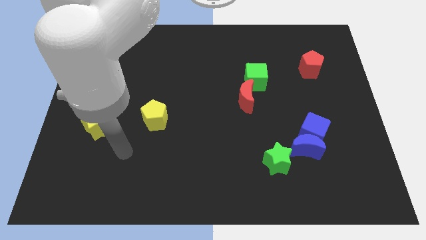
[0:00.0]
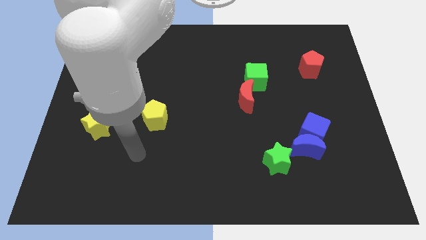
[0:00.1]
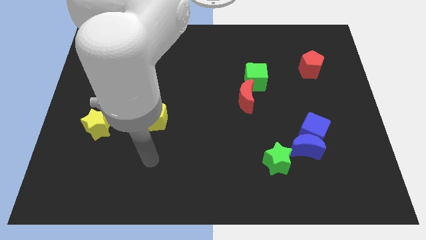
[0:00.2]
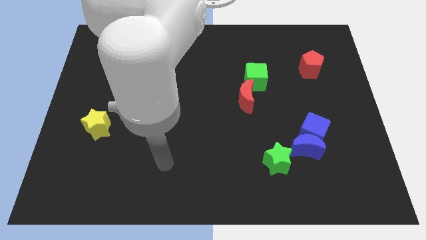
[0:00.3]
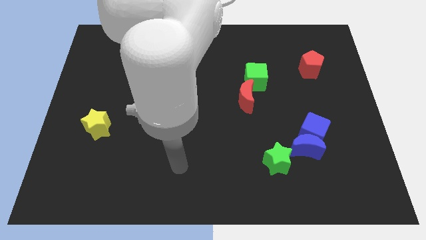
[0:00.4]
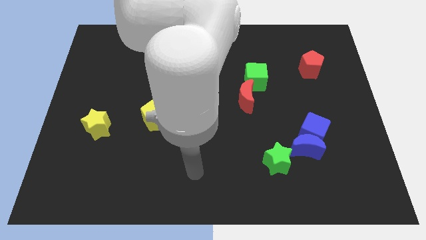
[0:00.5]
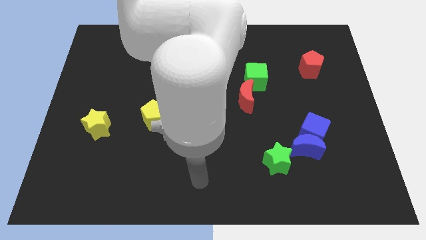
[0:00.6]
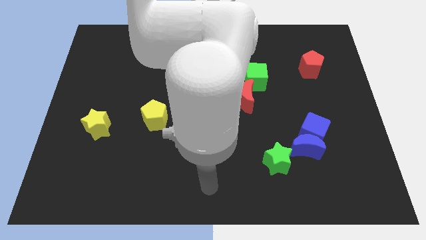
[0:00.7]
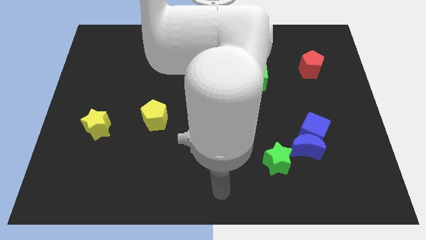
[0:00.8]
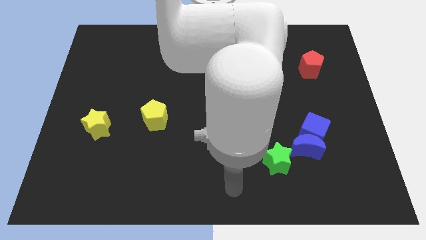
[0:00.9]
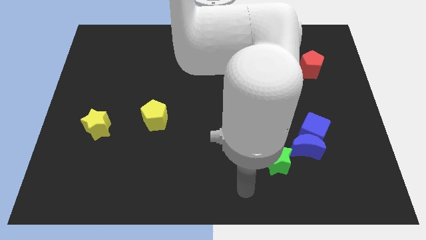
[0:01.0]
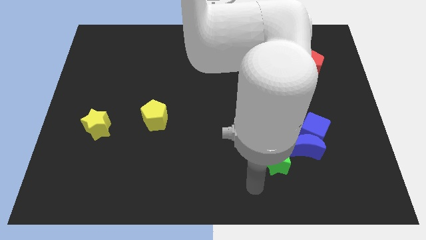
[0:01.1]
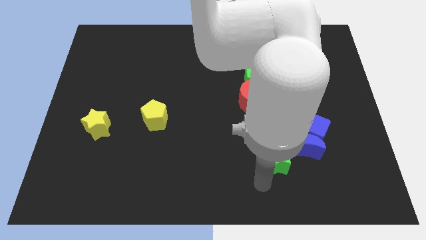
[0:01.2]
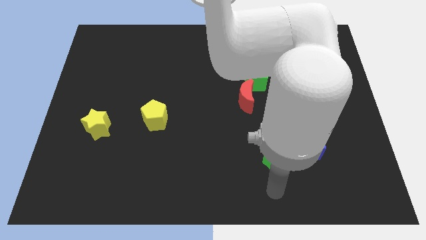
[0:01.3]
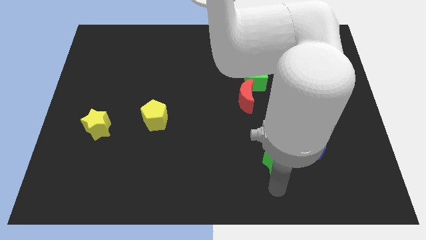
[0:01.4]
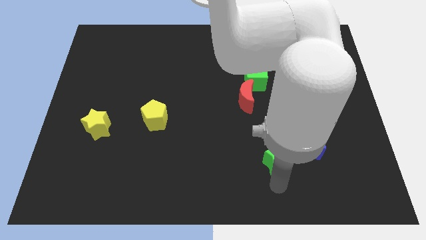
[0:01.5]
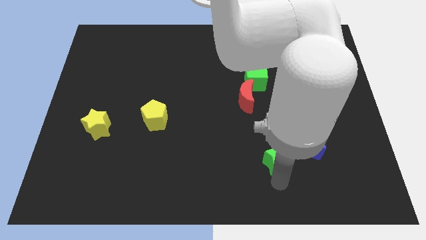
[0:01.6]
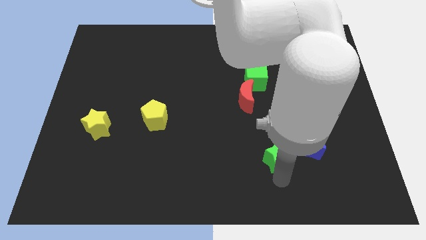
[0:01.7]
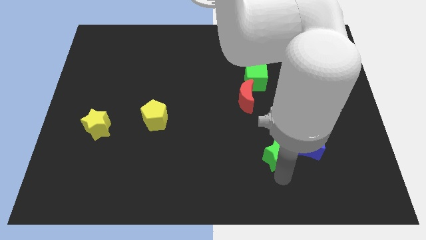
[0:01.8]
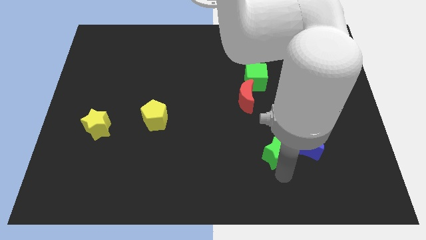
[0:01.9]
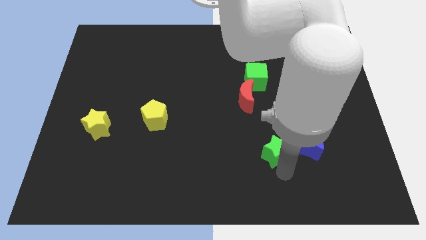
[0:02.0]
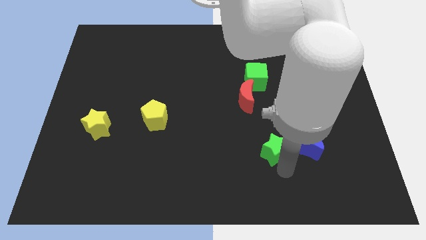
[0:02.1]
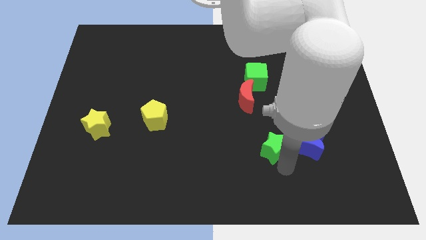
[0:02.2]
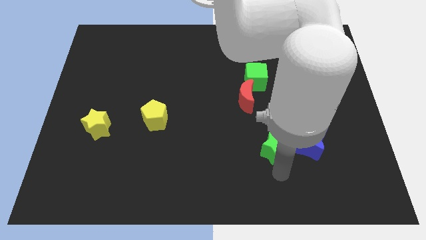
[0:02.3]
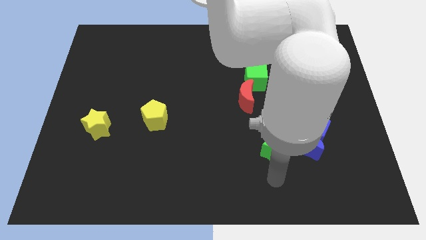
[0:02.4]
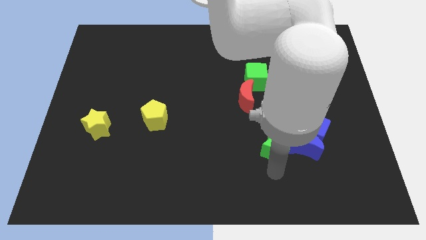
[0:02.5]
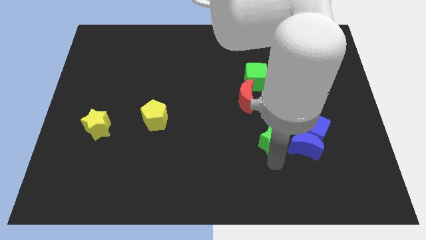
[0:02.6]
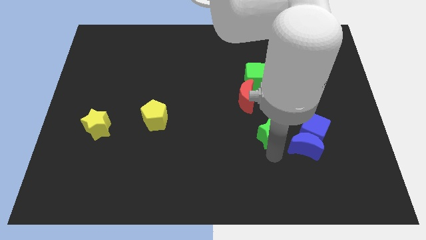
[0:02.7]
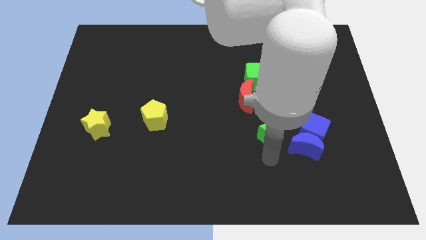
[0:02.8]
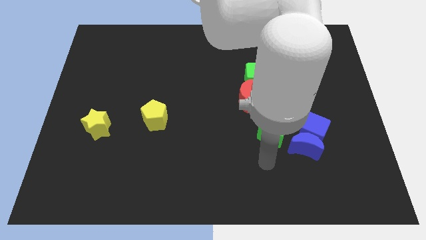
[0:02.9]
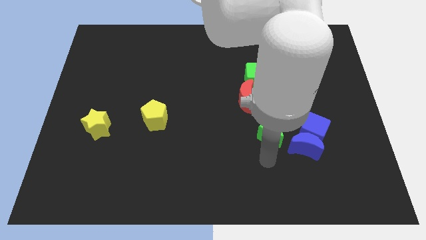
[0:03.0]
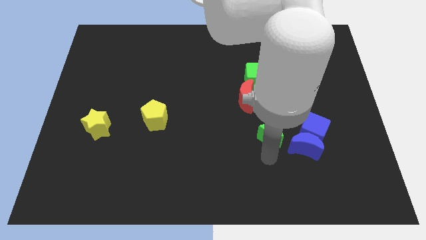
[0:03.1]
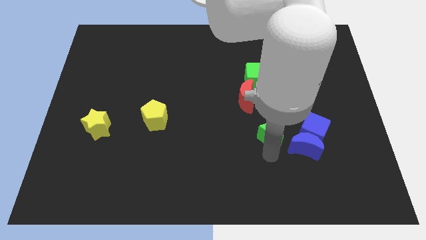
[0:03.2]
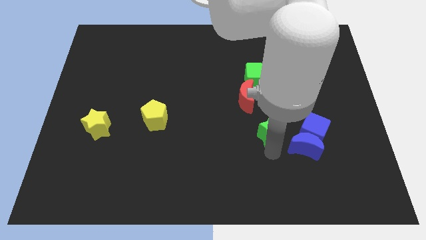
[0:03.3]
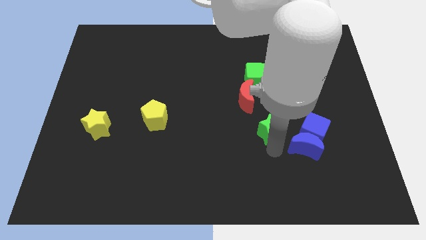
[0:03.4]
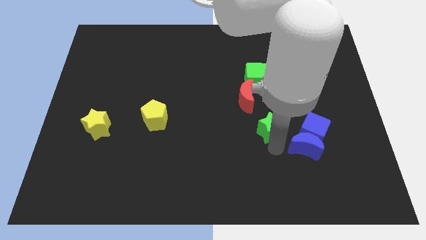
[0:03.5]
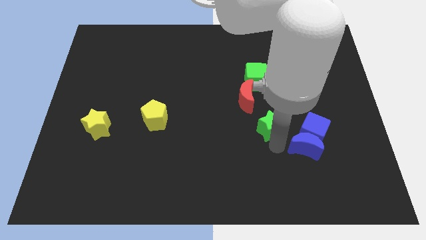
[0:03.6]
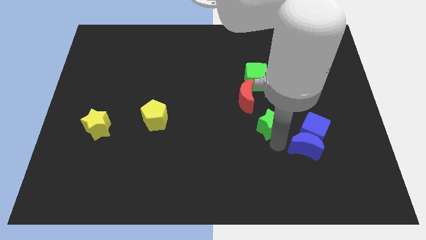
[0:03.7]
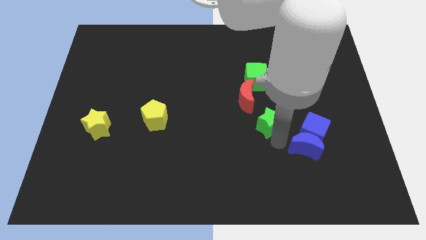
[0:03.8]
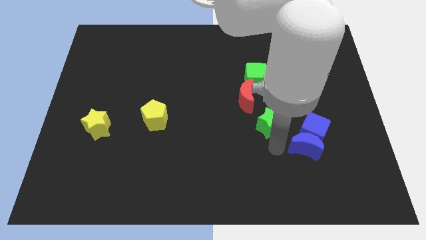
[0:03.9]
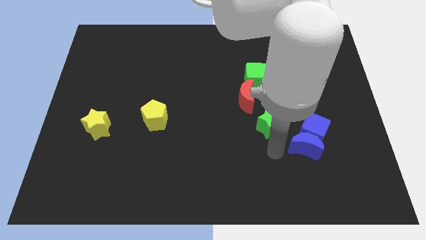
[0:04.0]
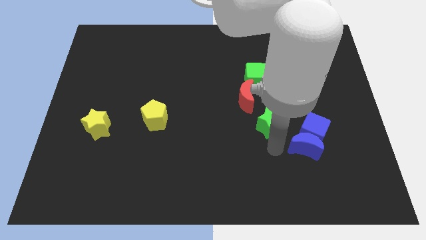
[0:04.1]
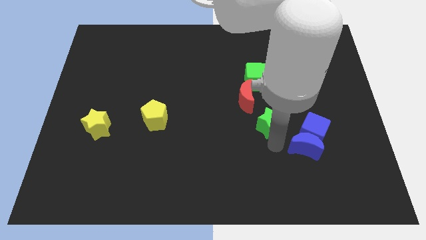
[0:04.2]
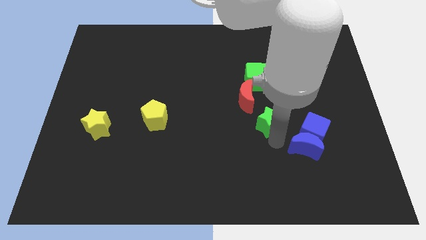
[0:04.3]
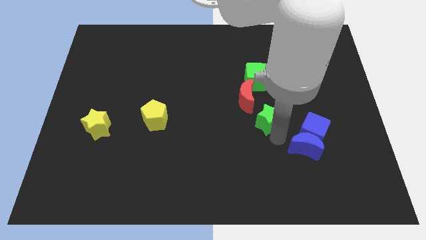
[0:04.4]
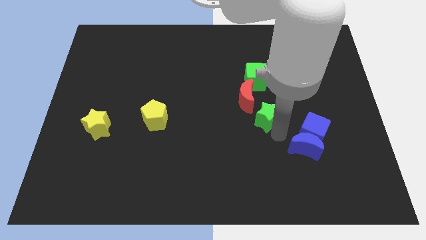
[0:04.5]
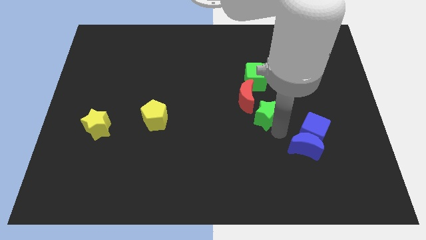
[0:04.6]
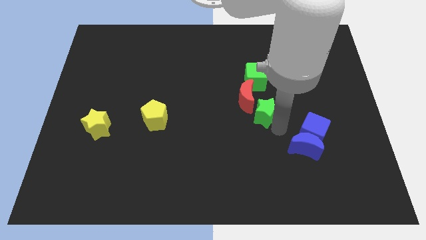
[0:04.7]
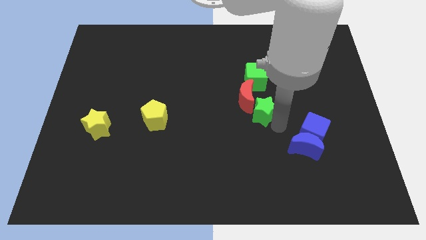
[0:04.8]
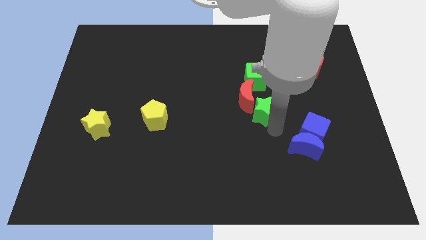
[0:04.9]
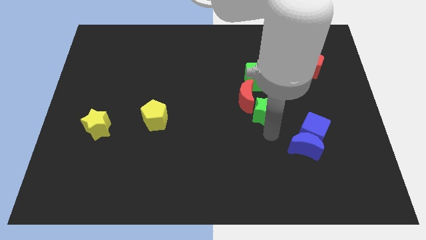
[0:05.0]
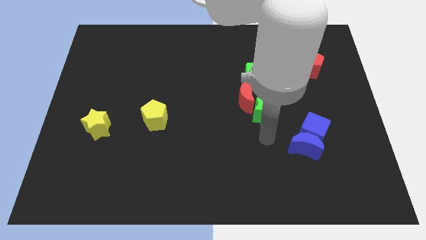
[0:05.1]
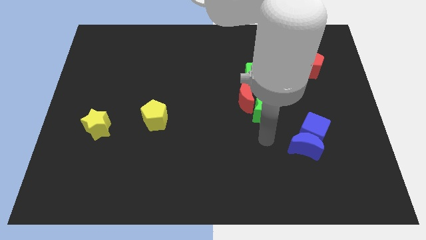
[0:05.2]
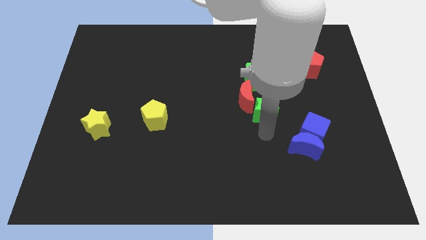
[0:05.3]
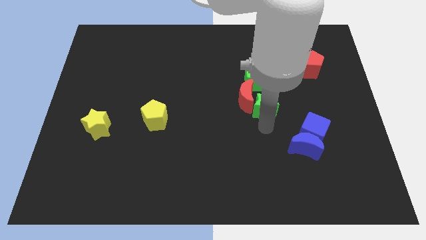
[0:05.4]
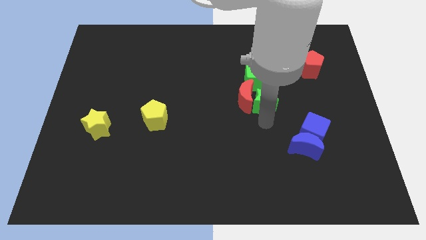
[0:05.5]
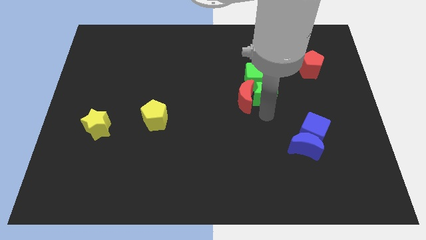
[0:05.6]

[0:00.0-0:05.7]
move the green star towards the green cube

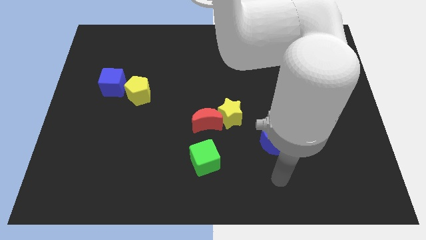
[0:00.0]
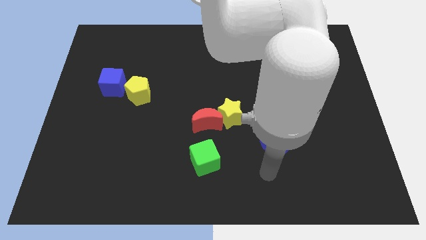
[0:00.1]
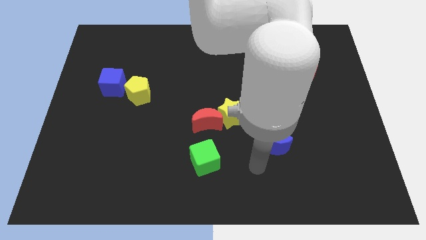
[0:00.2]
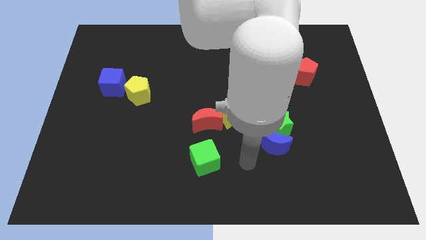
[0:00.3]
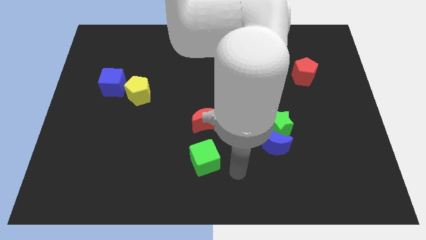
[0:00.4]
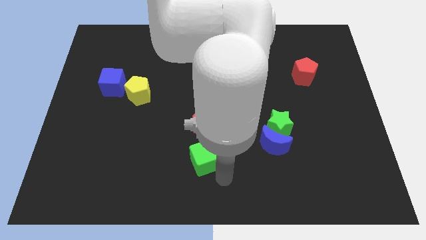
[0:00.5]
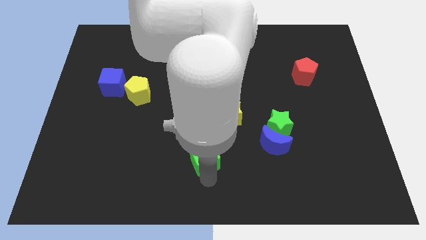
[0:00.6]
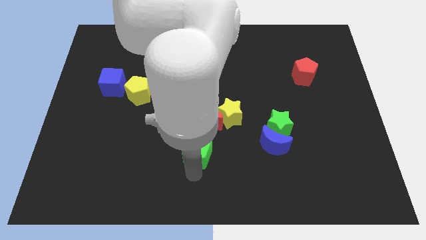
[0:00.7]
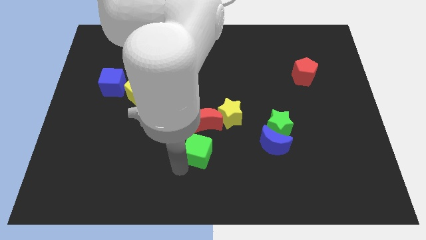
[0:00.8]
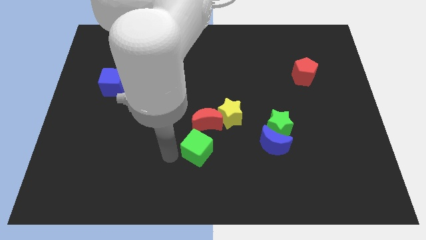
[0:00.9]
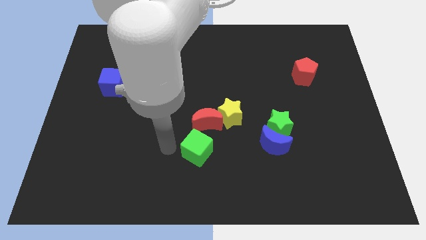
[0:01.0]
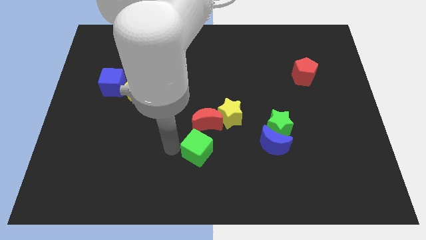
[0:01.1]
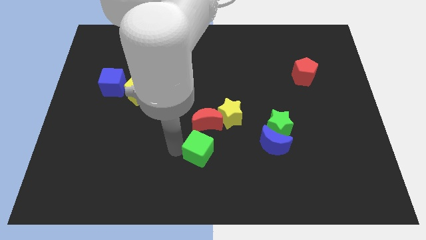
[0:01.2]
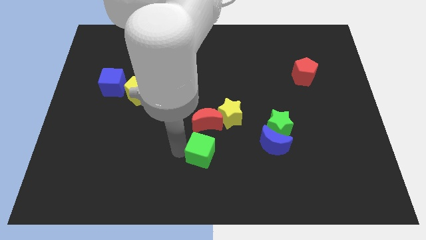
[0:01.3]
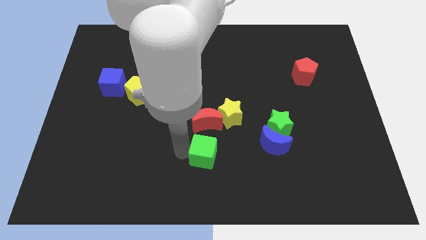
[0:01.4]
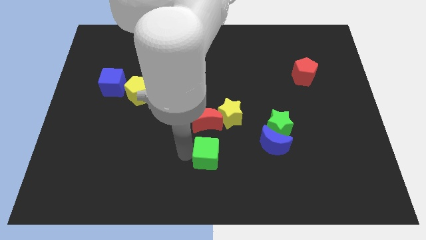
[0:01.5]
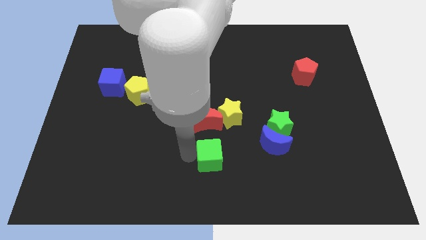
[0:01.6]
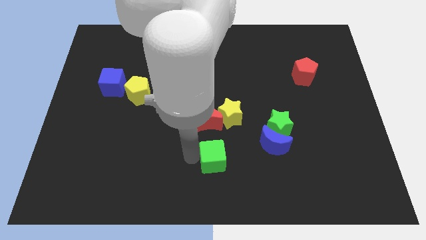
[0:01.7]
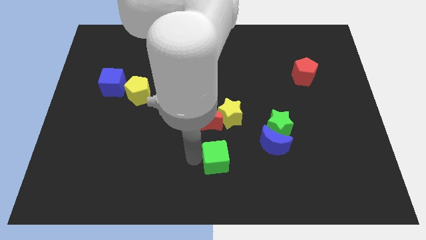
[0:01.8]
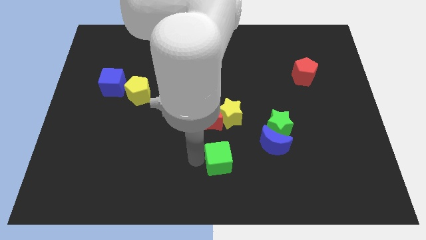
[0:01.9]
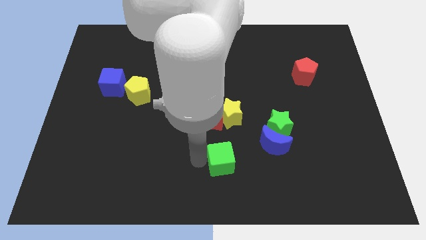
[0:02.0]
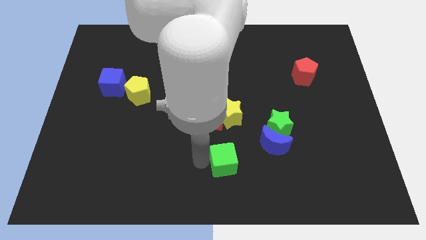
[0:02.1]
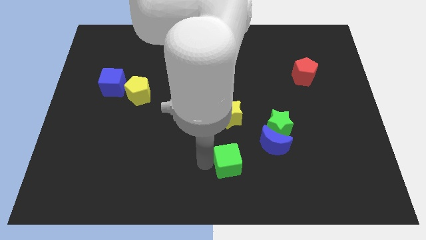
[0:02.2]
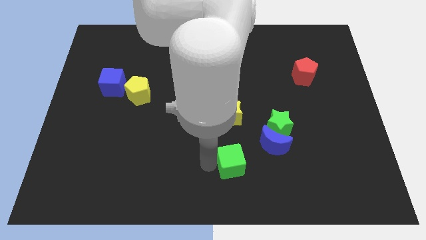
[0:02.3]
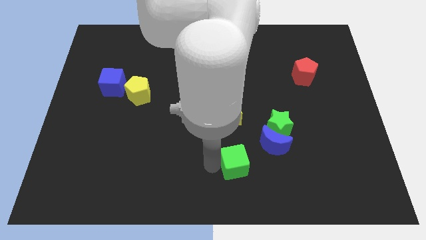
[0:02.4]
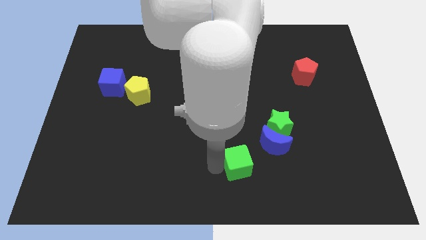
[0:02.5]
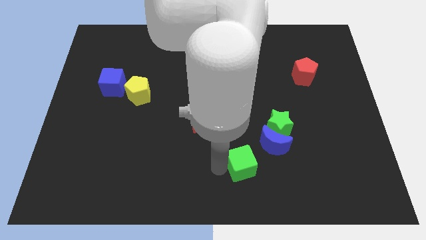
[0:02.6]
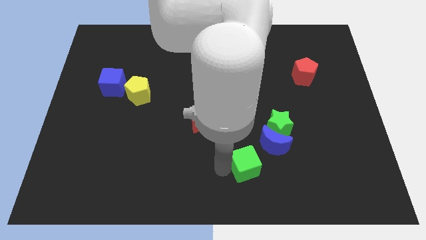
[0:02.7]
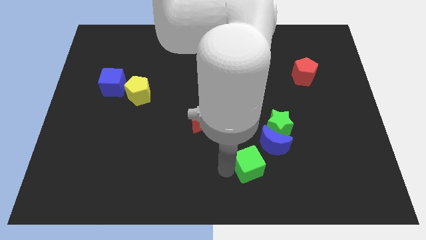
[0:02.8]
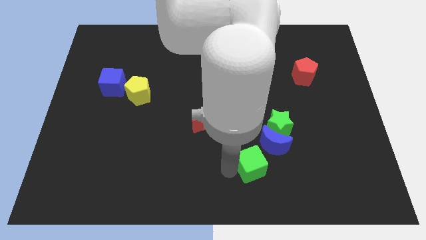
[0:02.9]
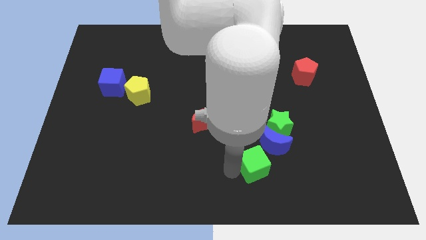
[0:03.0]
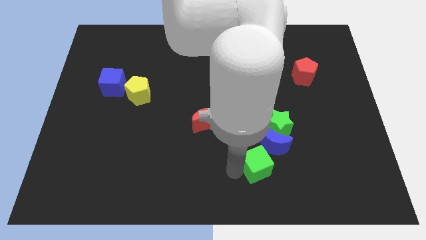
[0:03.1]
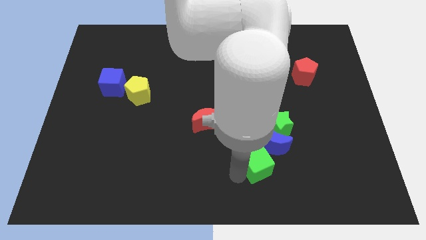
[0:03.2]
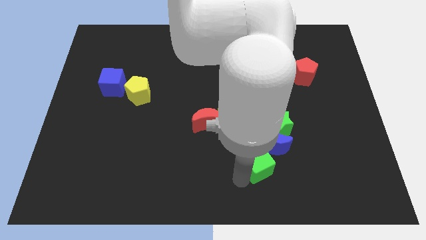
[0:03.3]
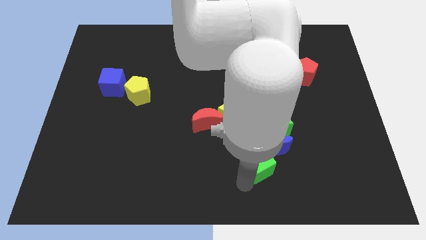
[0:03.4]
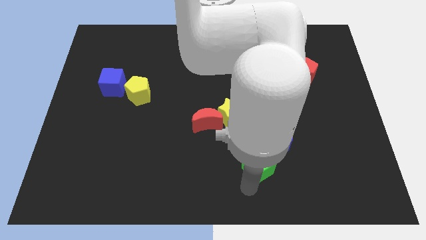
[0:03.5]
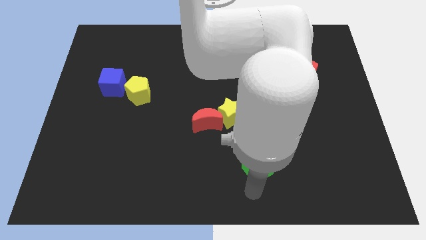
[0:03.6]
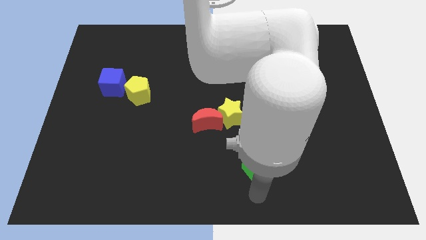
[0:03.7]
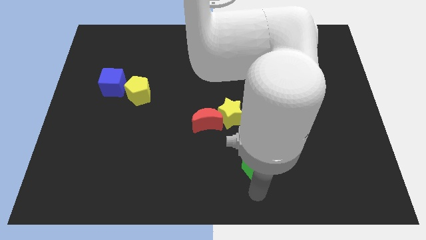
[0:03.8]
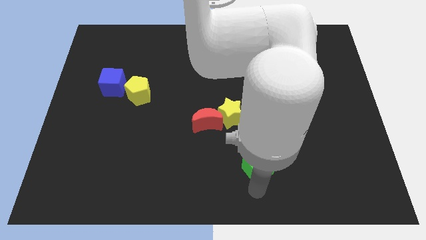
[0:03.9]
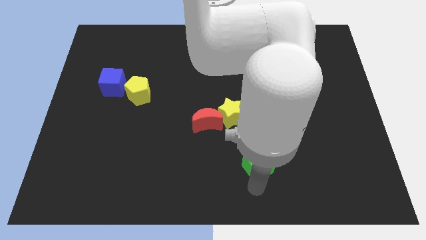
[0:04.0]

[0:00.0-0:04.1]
slide the green cube to the blue moon
